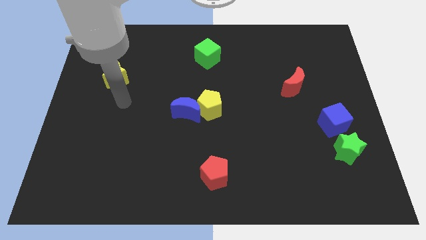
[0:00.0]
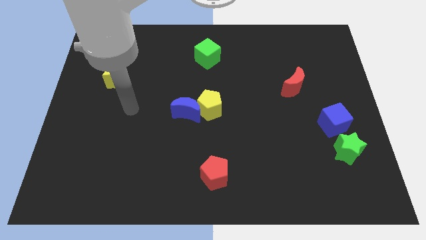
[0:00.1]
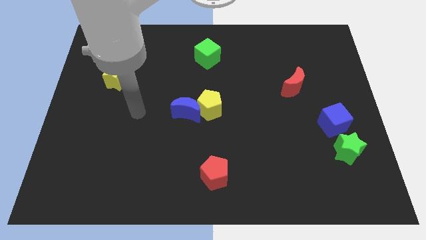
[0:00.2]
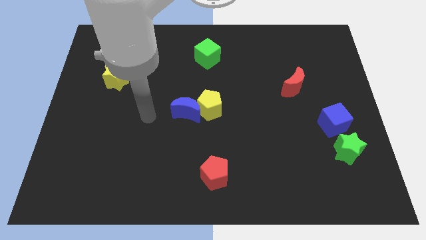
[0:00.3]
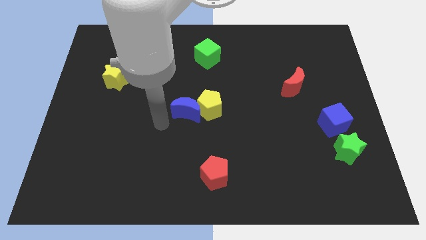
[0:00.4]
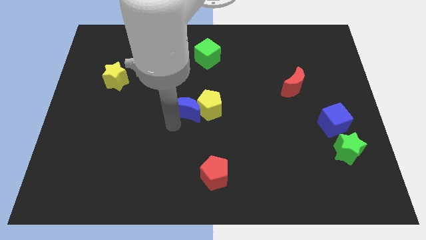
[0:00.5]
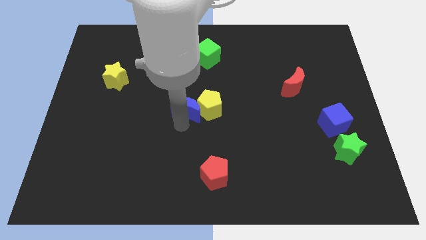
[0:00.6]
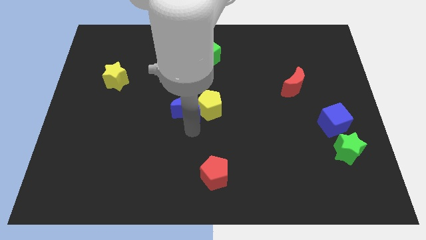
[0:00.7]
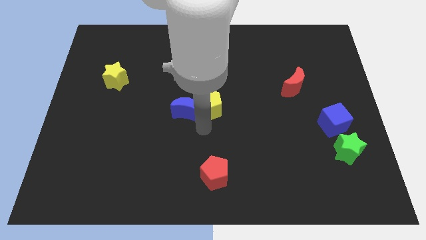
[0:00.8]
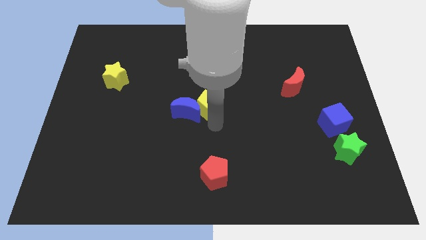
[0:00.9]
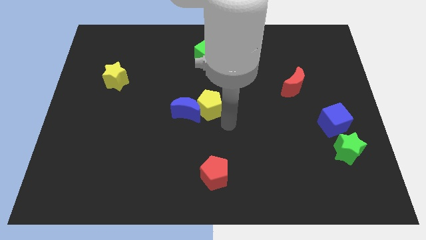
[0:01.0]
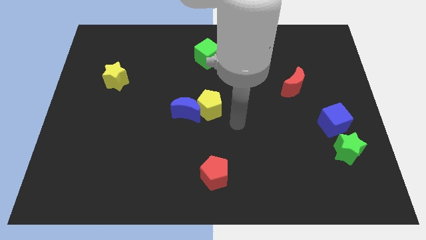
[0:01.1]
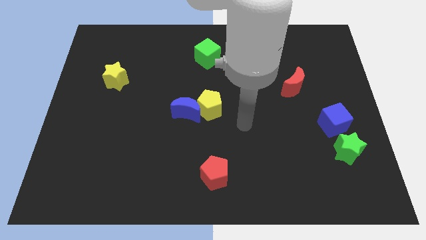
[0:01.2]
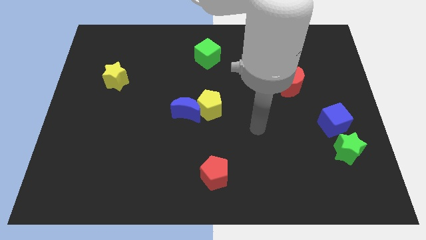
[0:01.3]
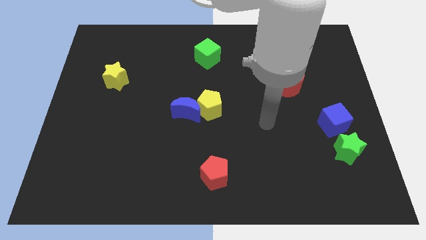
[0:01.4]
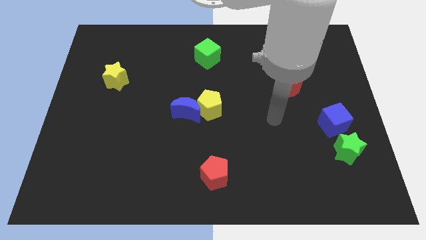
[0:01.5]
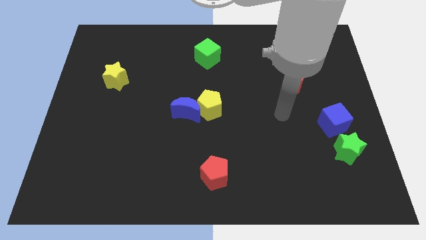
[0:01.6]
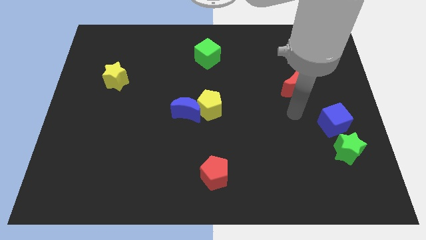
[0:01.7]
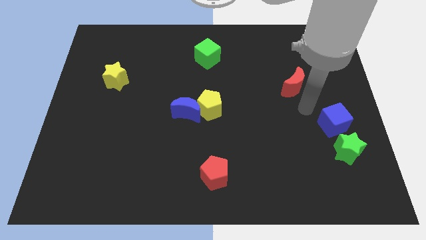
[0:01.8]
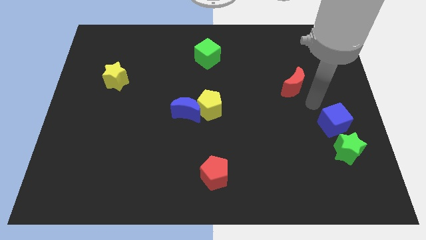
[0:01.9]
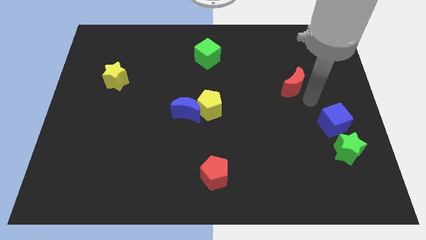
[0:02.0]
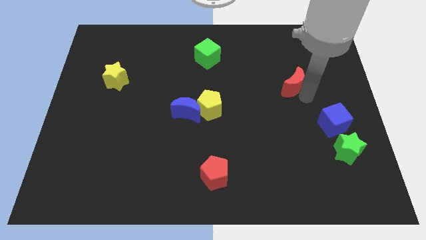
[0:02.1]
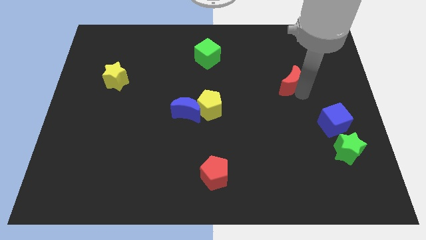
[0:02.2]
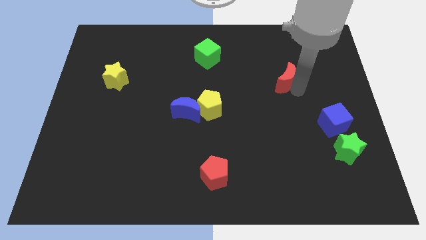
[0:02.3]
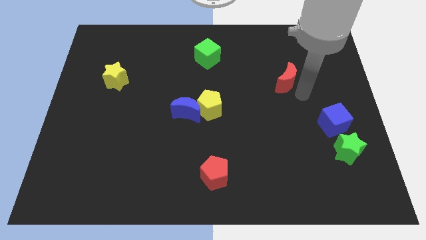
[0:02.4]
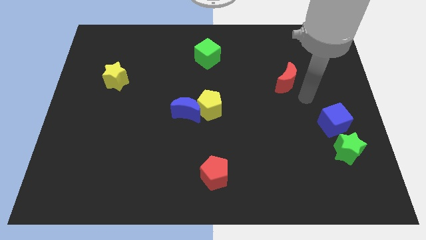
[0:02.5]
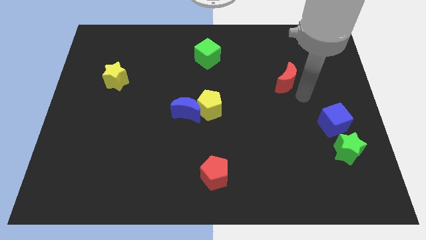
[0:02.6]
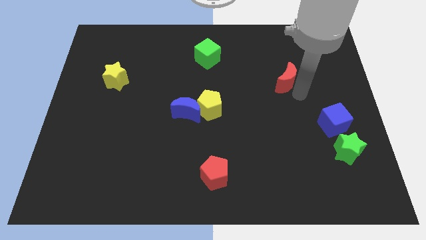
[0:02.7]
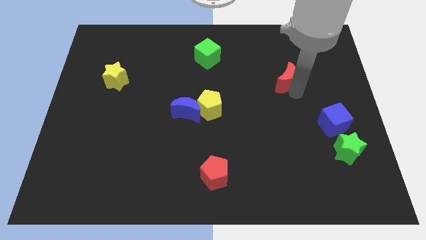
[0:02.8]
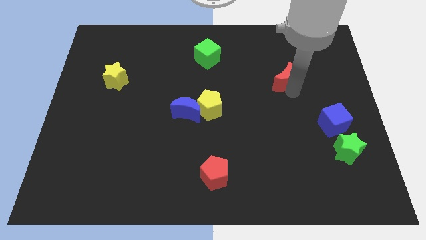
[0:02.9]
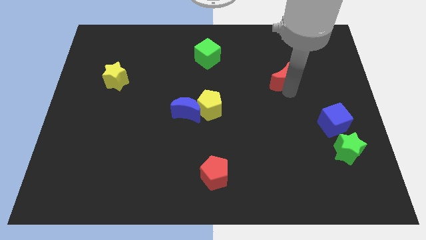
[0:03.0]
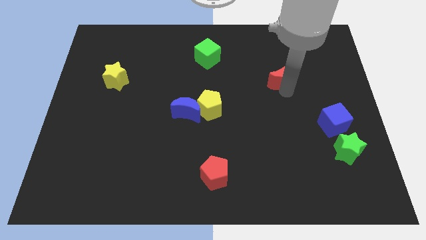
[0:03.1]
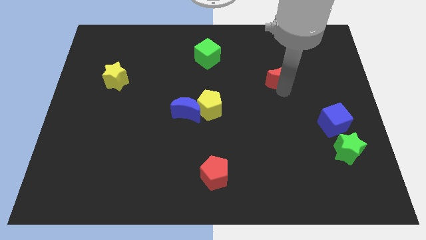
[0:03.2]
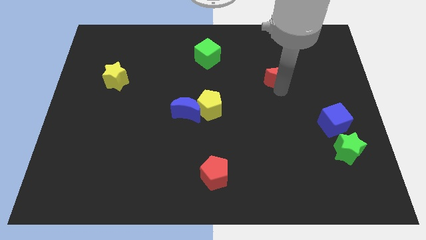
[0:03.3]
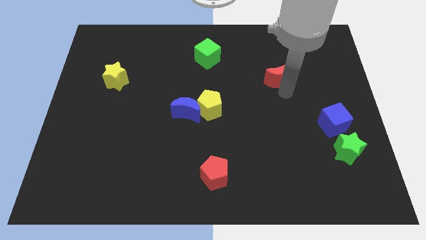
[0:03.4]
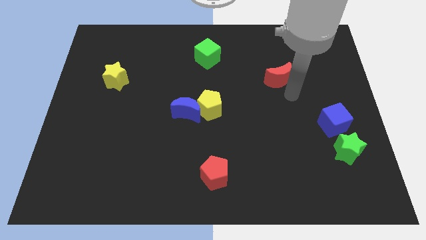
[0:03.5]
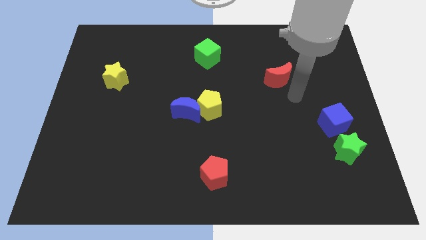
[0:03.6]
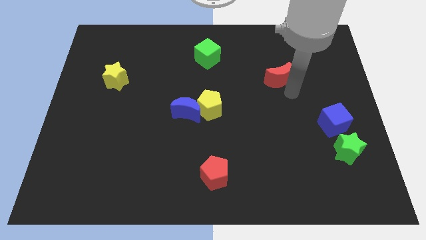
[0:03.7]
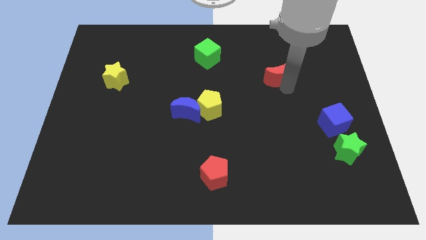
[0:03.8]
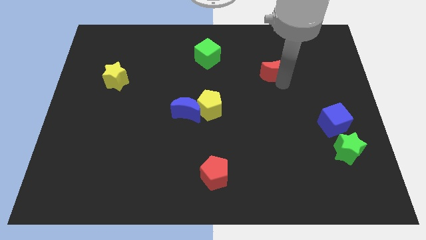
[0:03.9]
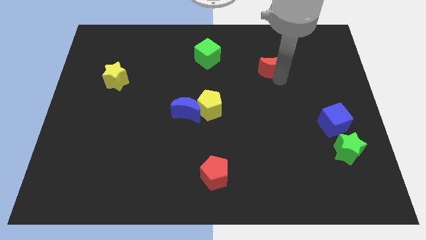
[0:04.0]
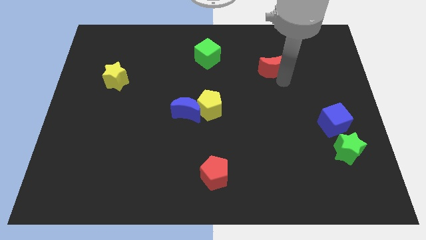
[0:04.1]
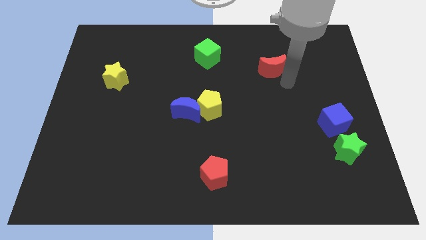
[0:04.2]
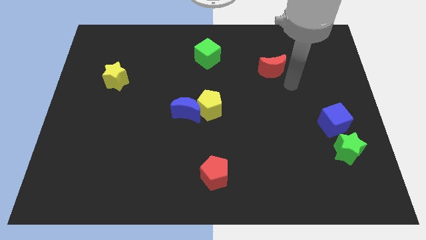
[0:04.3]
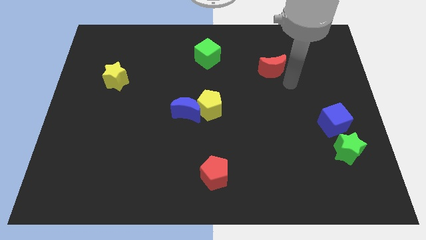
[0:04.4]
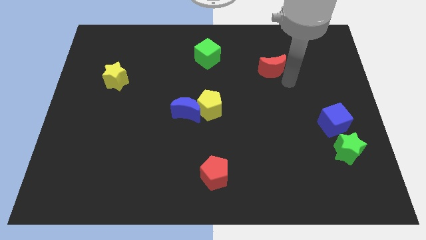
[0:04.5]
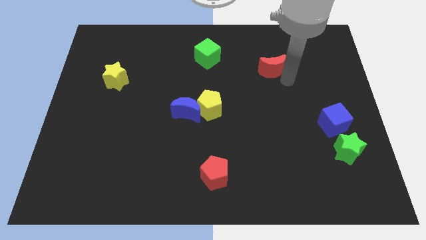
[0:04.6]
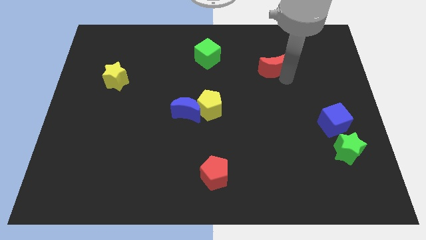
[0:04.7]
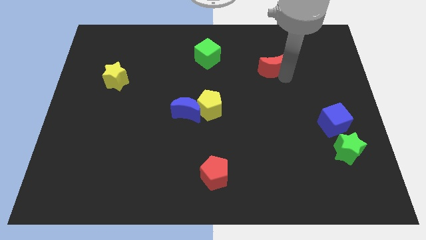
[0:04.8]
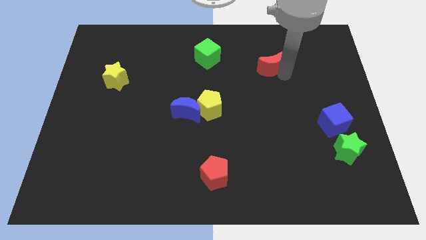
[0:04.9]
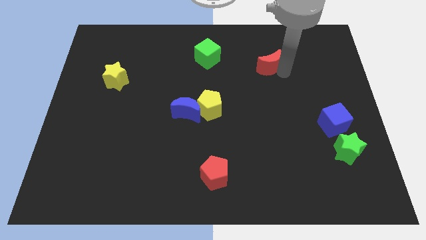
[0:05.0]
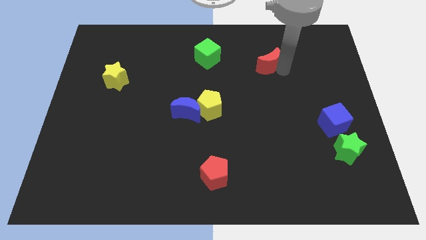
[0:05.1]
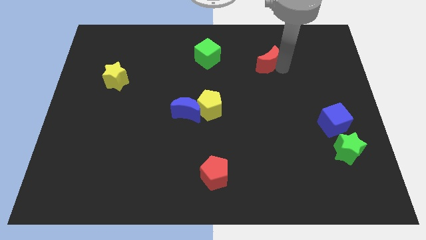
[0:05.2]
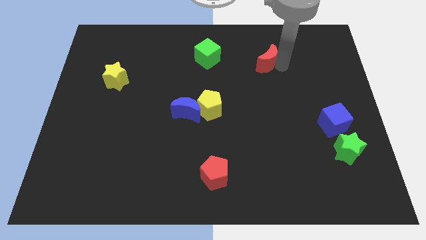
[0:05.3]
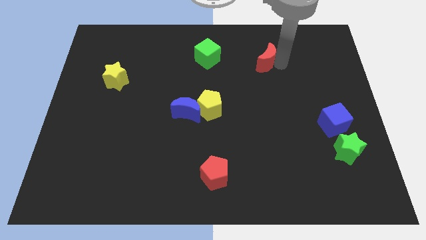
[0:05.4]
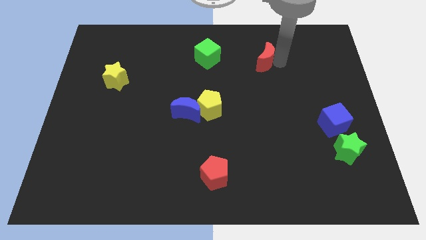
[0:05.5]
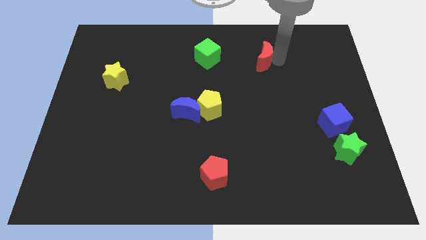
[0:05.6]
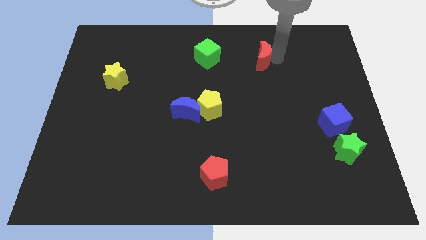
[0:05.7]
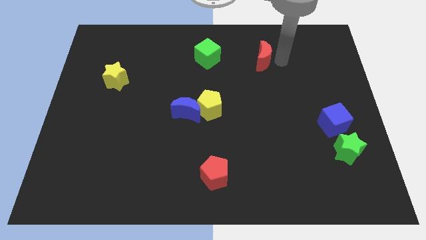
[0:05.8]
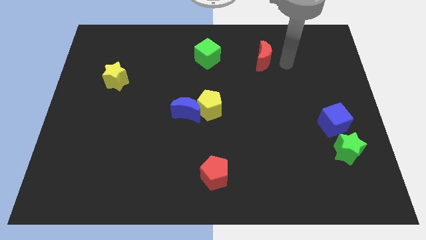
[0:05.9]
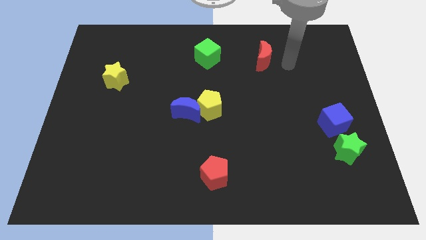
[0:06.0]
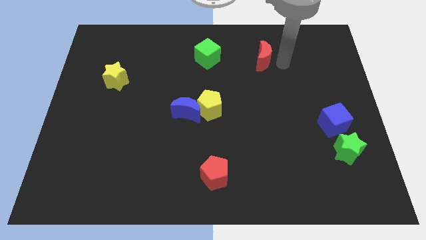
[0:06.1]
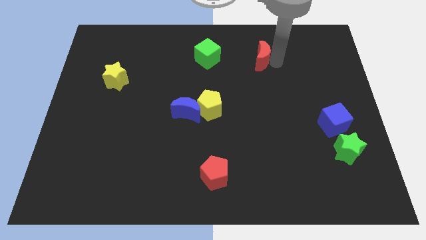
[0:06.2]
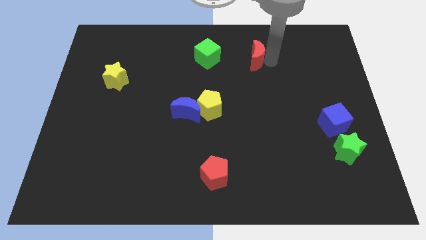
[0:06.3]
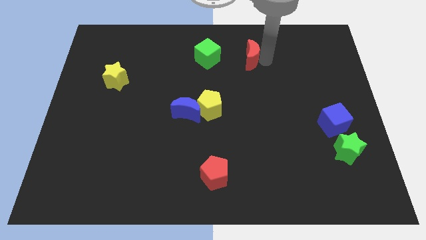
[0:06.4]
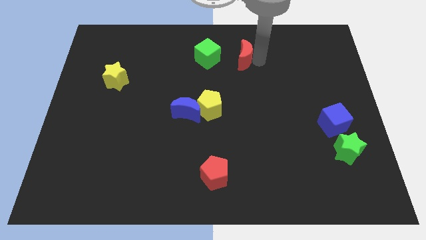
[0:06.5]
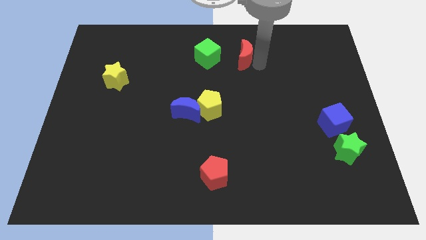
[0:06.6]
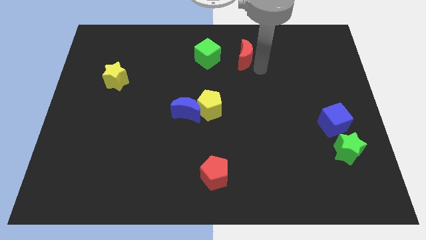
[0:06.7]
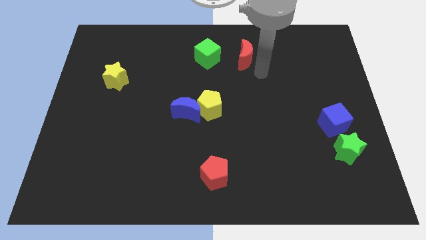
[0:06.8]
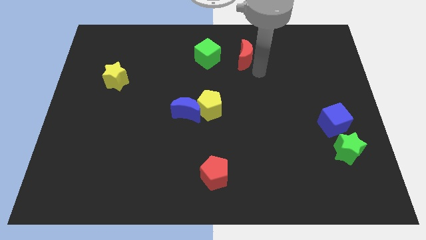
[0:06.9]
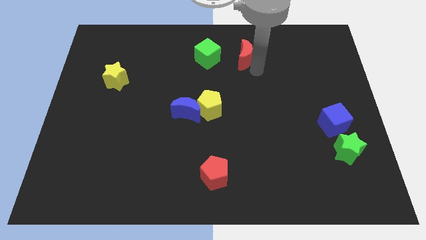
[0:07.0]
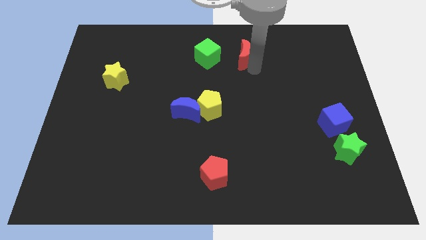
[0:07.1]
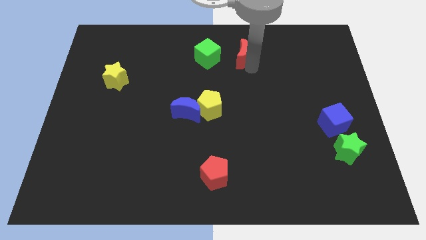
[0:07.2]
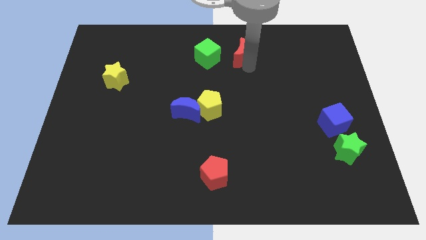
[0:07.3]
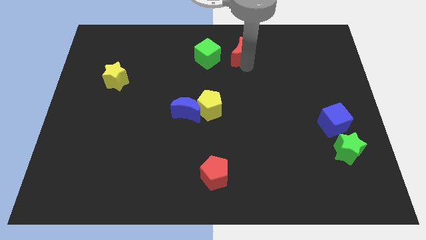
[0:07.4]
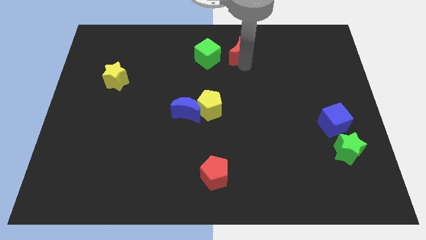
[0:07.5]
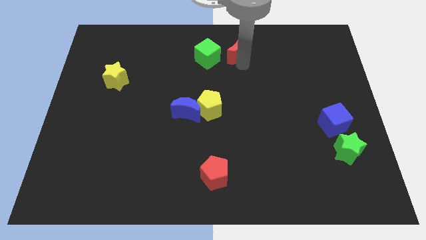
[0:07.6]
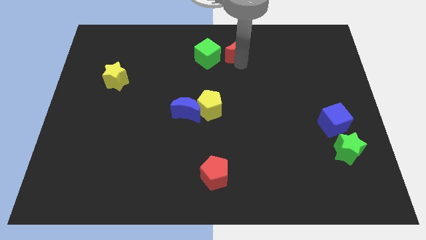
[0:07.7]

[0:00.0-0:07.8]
push the red moon to the towards your base
